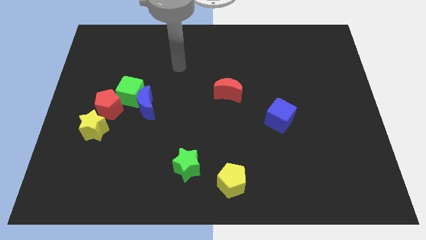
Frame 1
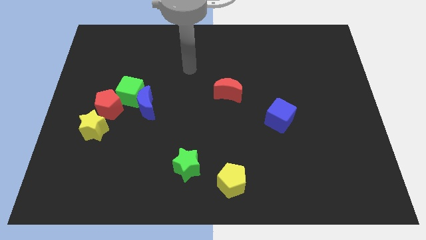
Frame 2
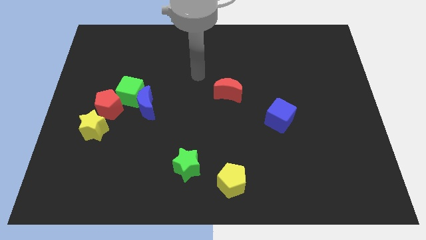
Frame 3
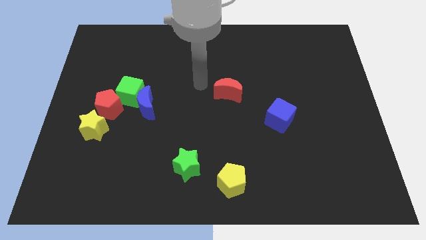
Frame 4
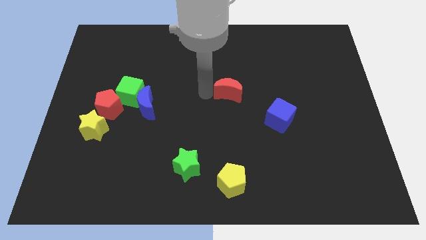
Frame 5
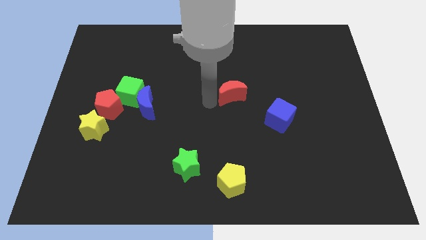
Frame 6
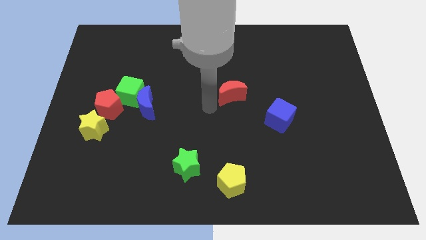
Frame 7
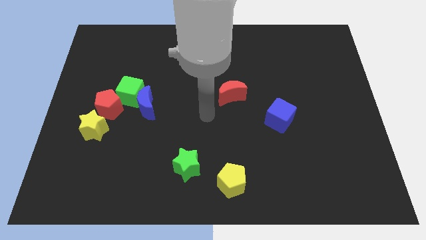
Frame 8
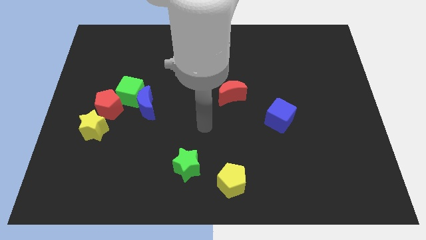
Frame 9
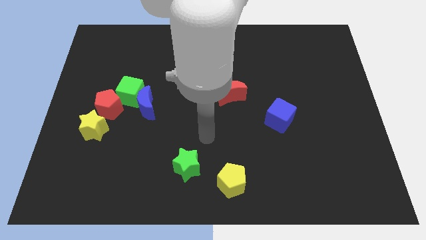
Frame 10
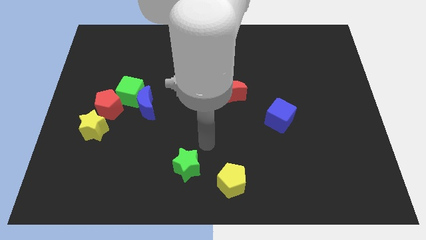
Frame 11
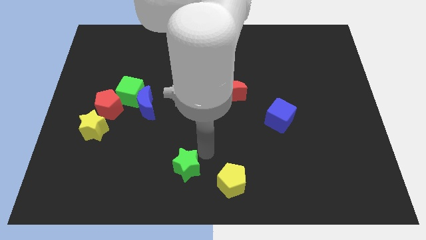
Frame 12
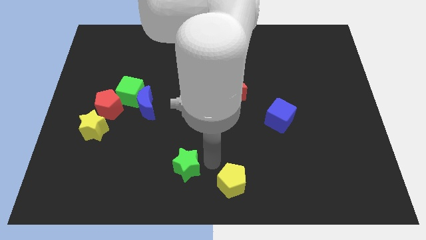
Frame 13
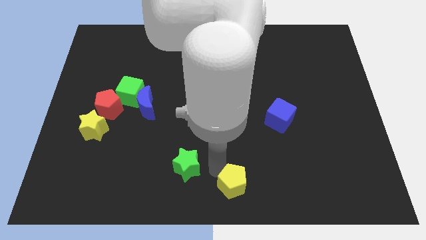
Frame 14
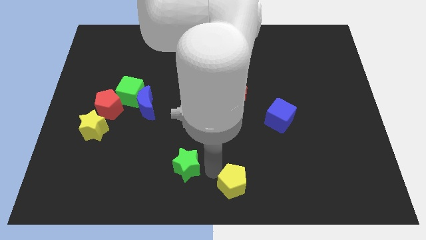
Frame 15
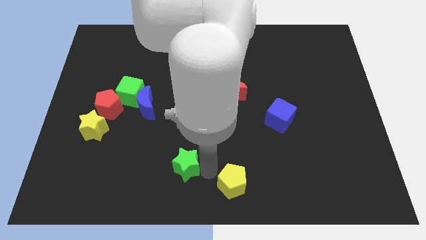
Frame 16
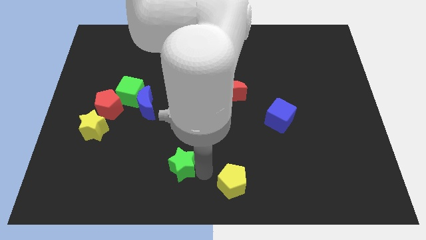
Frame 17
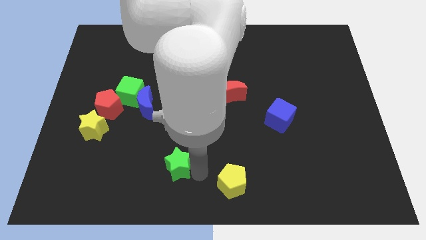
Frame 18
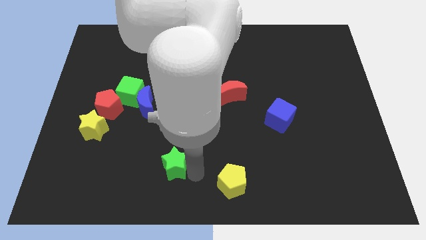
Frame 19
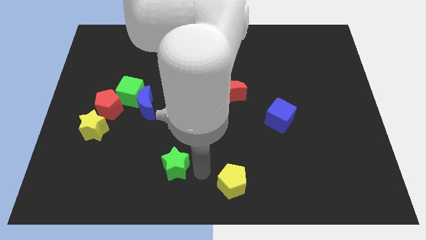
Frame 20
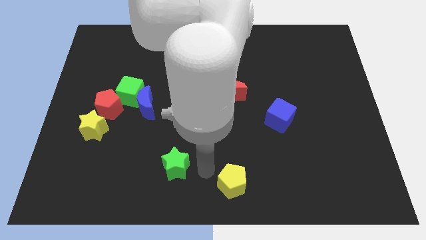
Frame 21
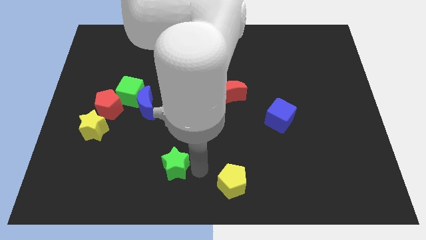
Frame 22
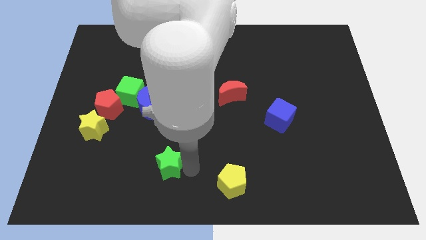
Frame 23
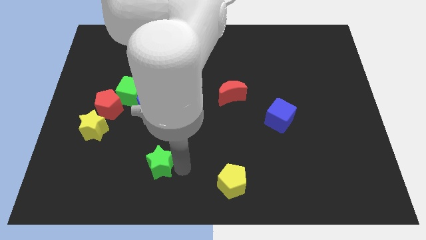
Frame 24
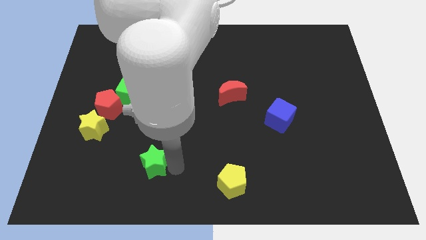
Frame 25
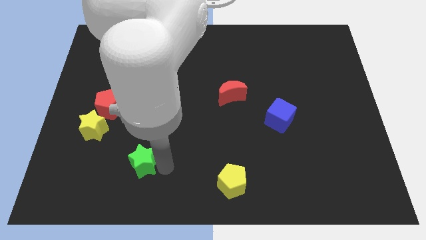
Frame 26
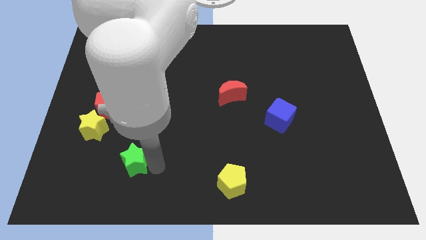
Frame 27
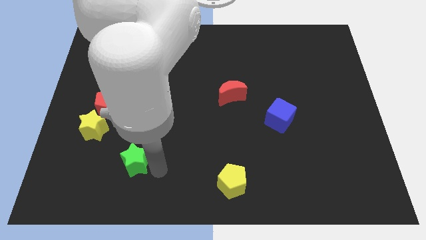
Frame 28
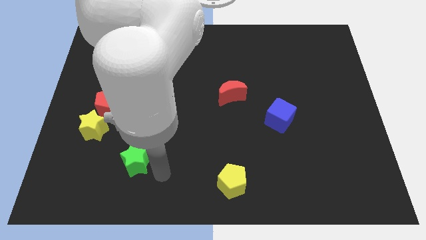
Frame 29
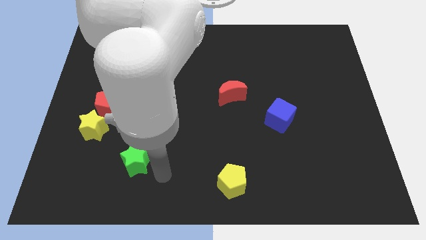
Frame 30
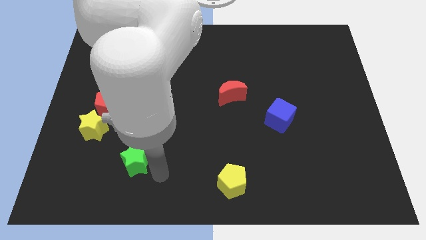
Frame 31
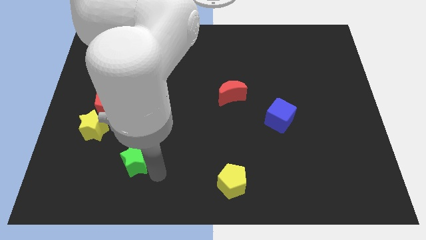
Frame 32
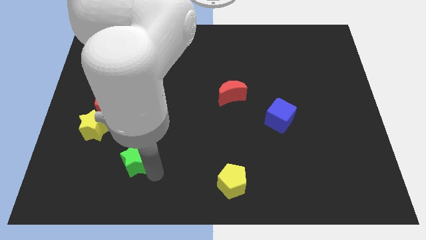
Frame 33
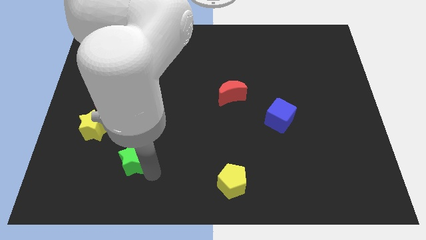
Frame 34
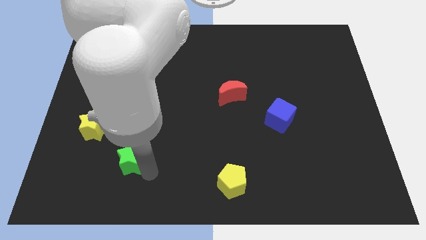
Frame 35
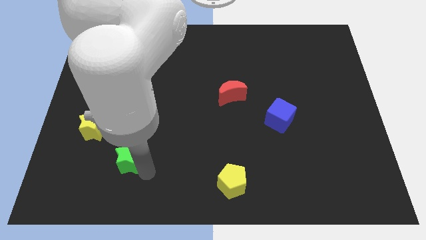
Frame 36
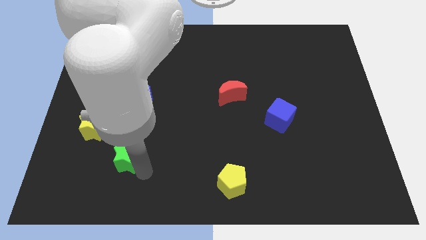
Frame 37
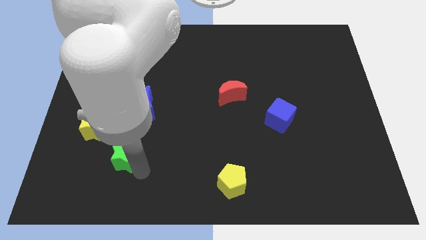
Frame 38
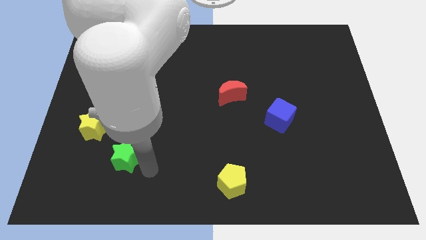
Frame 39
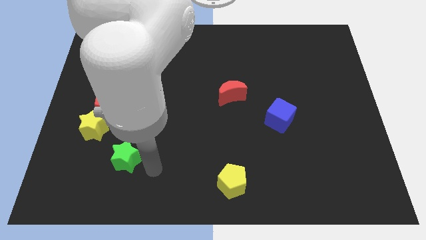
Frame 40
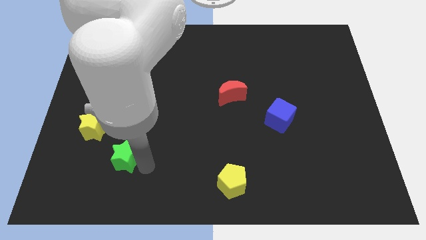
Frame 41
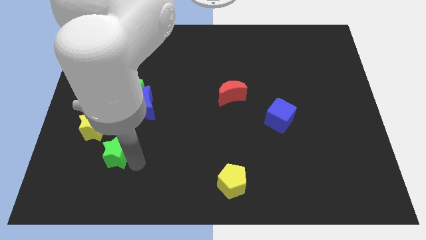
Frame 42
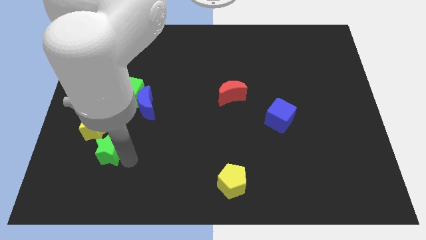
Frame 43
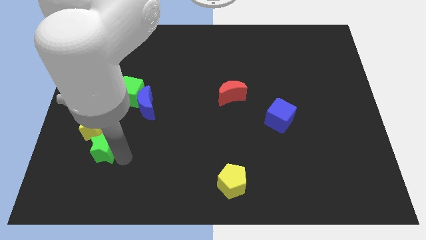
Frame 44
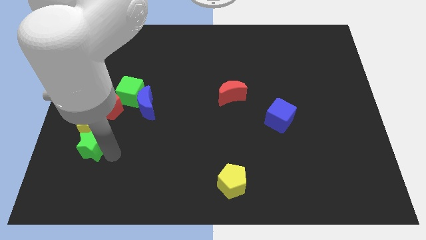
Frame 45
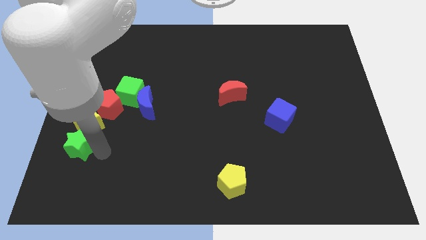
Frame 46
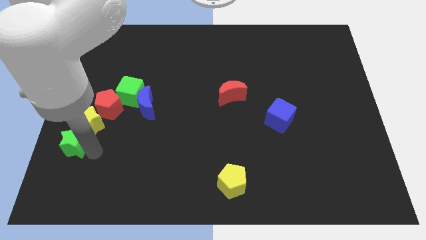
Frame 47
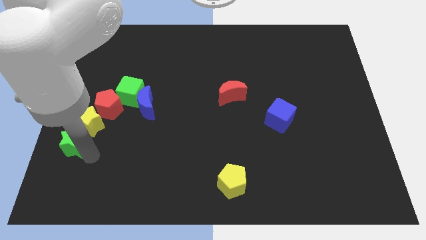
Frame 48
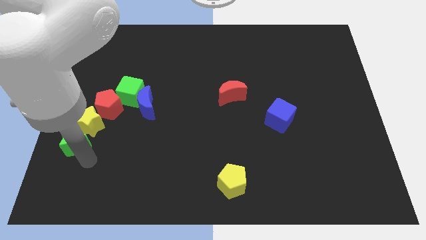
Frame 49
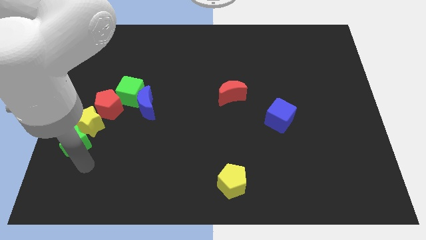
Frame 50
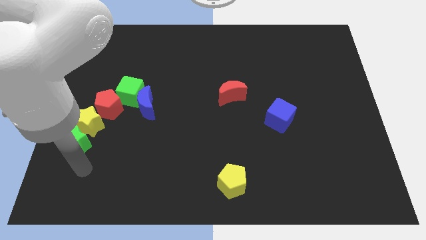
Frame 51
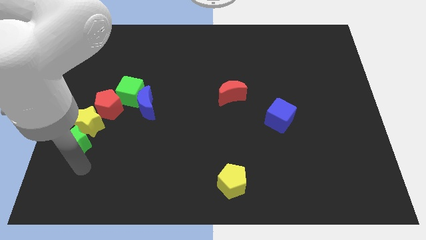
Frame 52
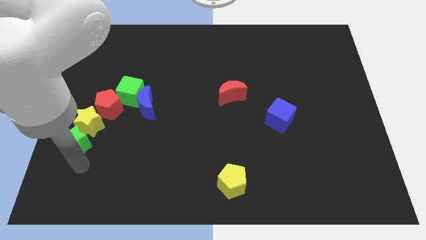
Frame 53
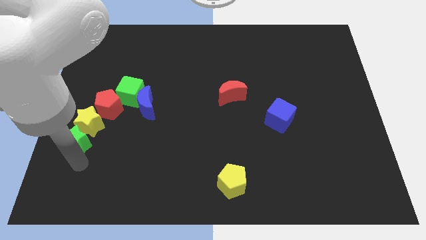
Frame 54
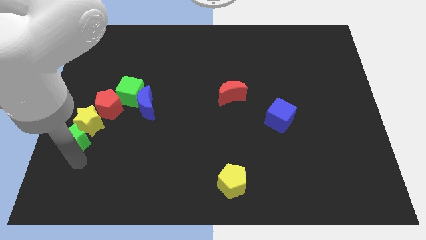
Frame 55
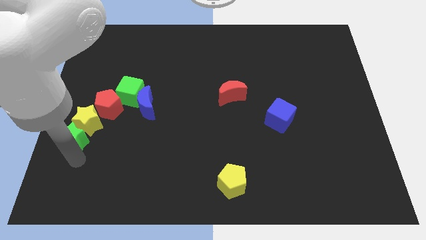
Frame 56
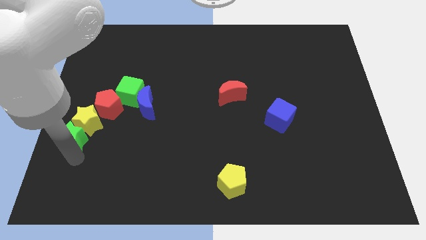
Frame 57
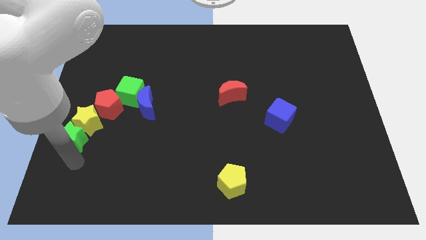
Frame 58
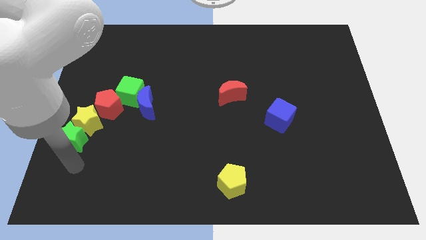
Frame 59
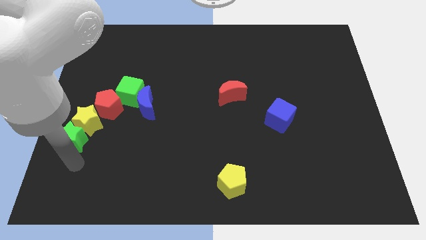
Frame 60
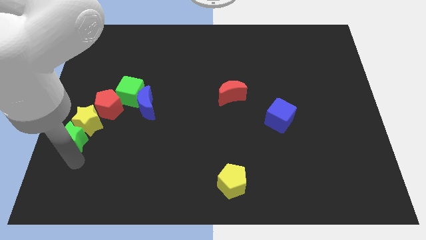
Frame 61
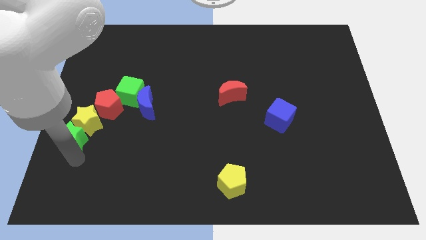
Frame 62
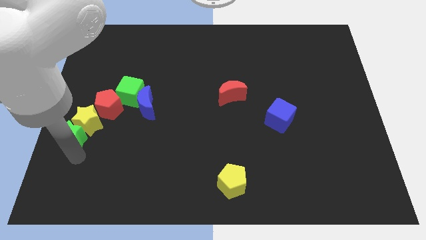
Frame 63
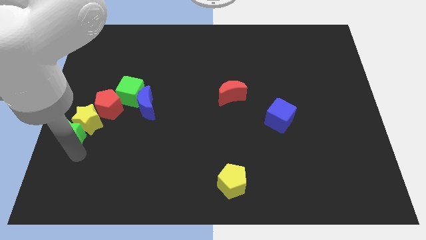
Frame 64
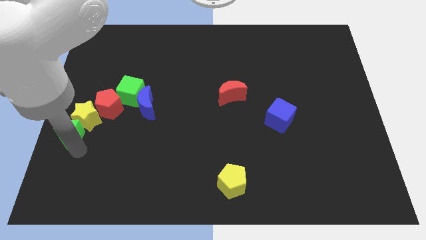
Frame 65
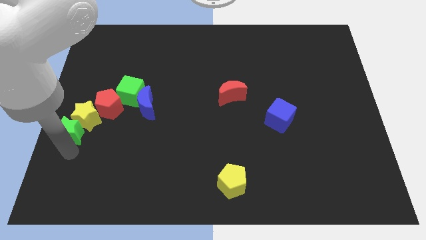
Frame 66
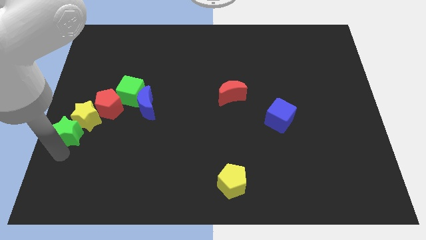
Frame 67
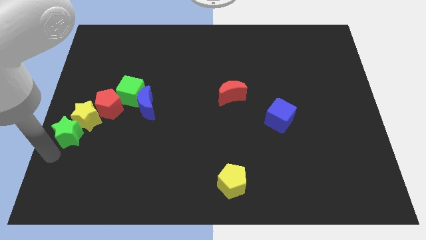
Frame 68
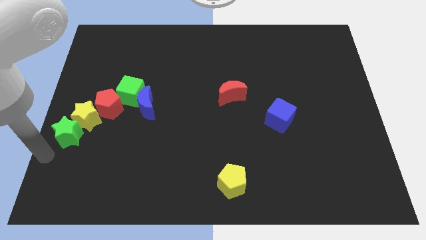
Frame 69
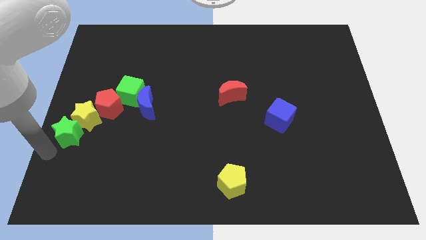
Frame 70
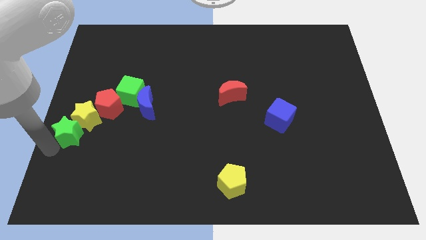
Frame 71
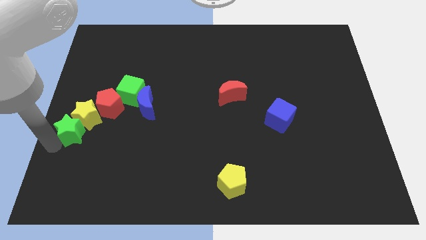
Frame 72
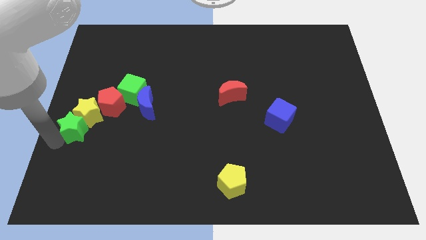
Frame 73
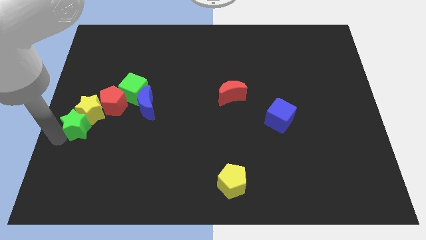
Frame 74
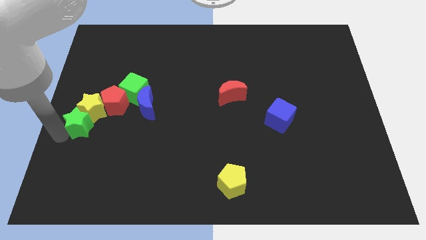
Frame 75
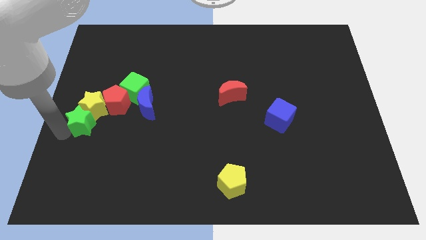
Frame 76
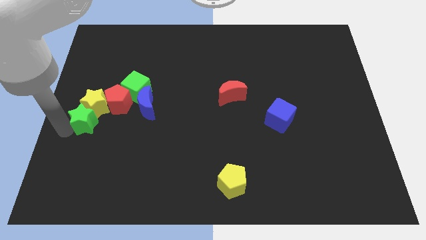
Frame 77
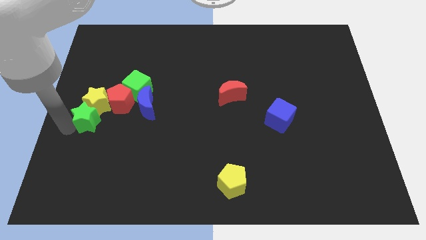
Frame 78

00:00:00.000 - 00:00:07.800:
slide the green star just left of the blue moon
